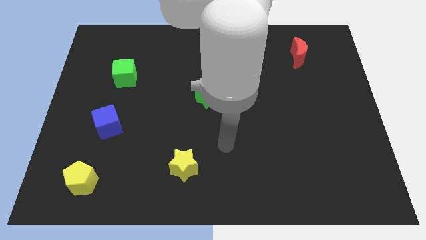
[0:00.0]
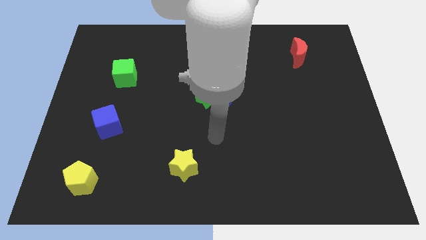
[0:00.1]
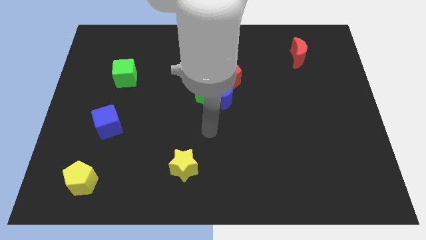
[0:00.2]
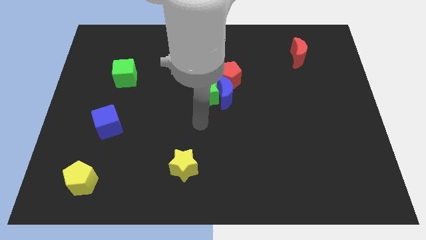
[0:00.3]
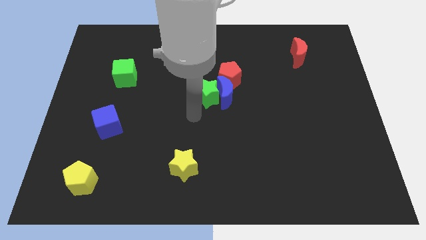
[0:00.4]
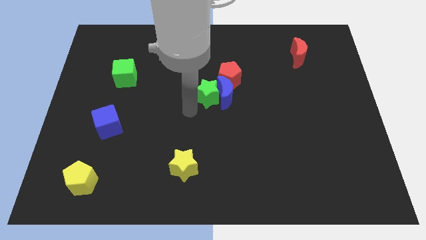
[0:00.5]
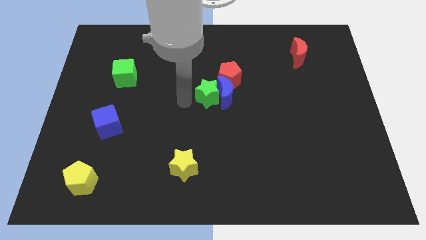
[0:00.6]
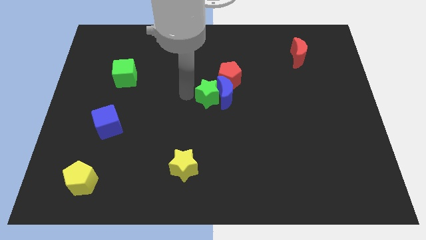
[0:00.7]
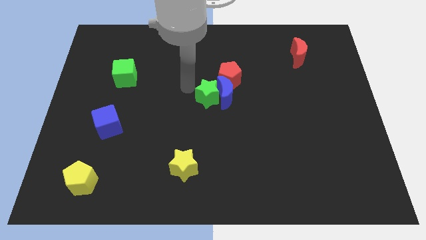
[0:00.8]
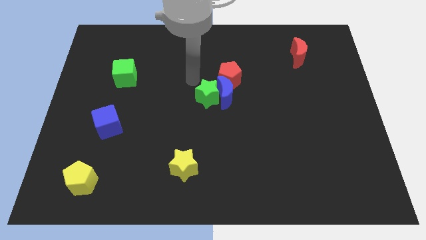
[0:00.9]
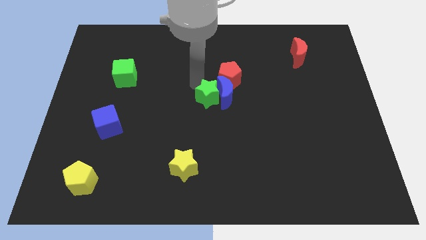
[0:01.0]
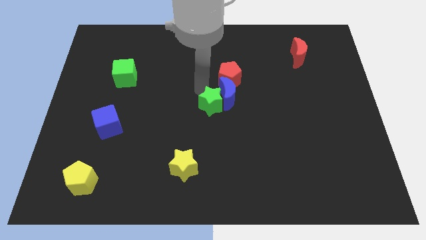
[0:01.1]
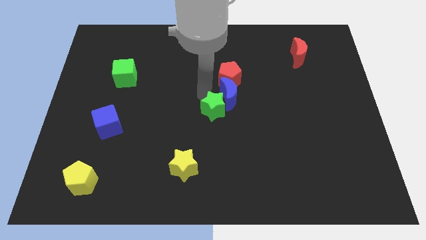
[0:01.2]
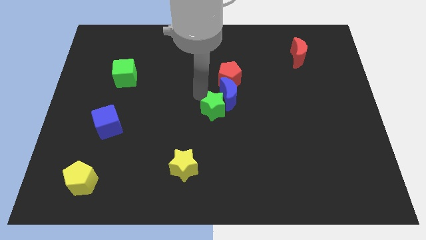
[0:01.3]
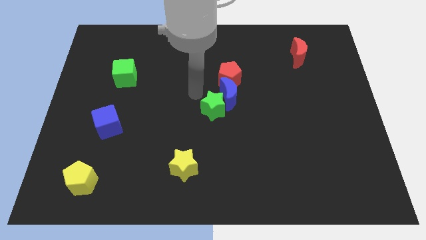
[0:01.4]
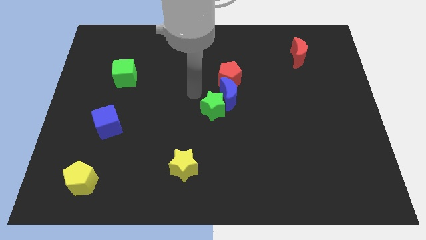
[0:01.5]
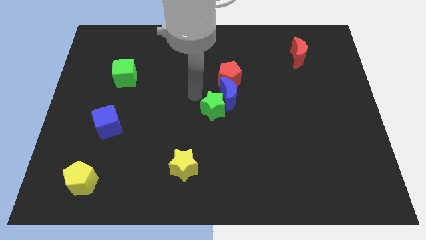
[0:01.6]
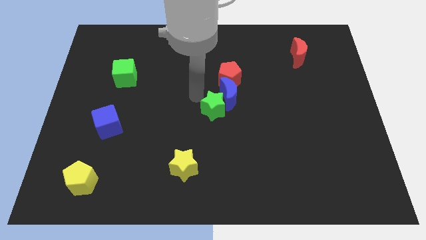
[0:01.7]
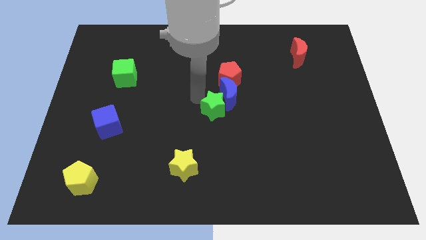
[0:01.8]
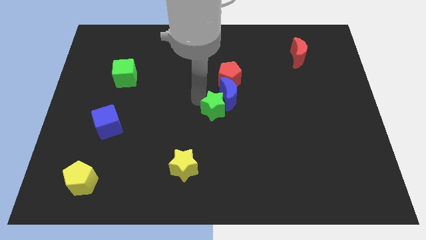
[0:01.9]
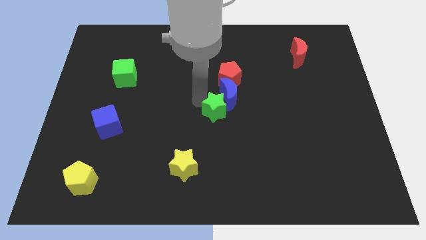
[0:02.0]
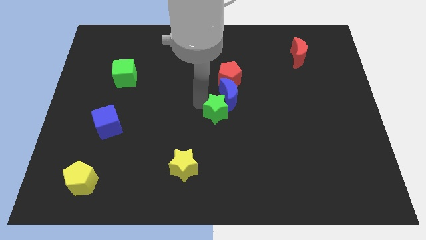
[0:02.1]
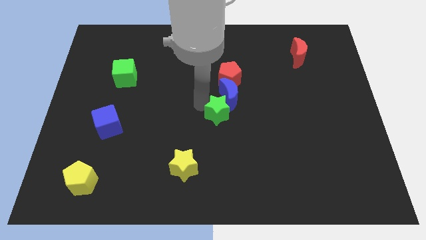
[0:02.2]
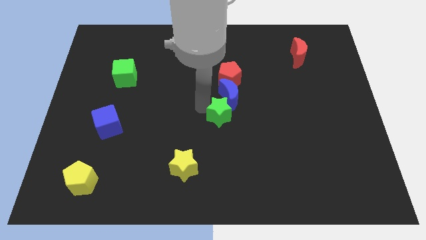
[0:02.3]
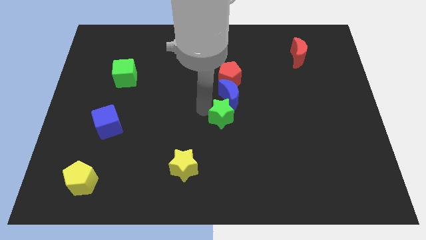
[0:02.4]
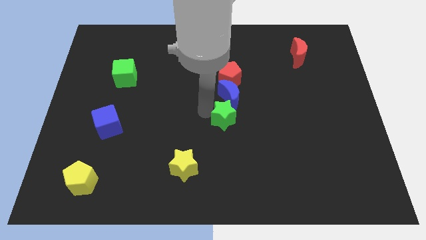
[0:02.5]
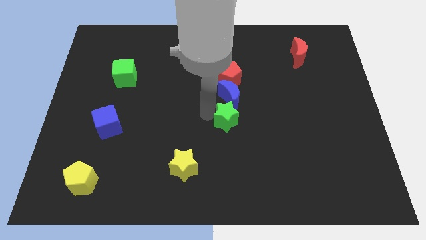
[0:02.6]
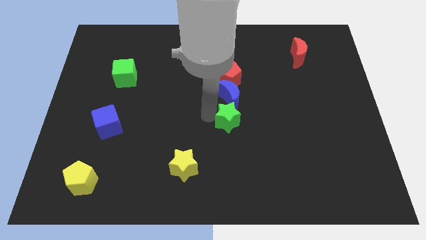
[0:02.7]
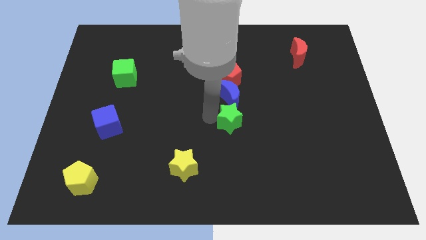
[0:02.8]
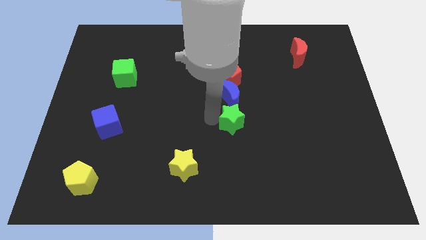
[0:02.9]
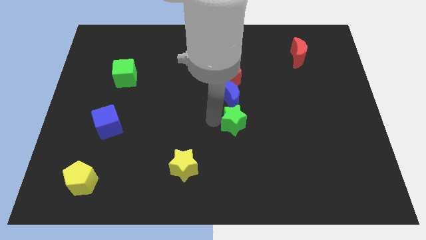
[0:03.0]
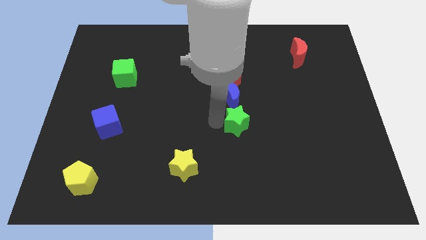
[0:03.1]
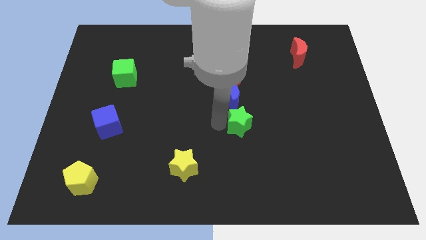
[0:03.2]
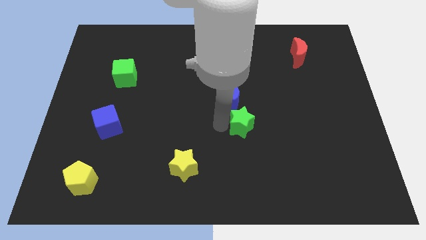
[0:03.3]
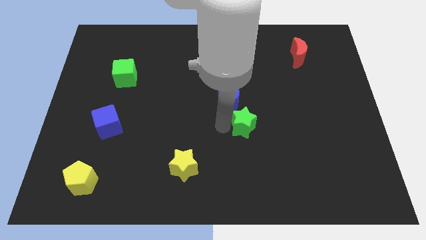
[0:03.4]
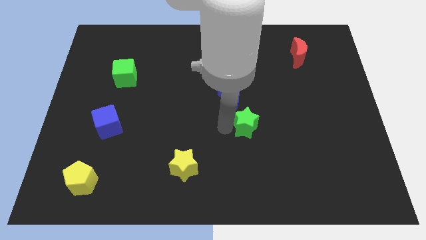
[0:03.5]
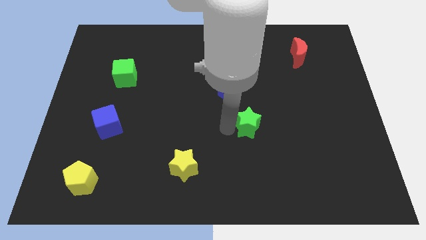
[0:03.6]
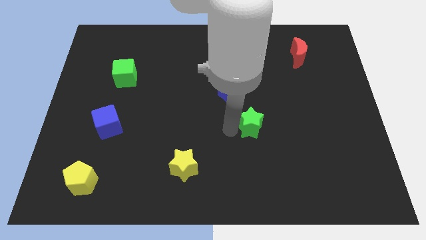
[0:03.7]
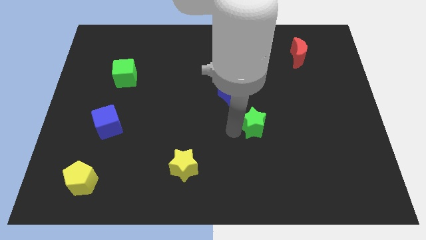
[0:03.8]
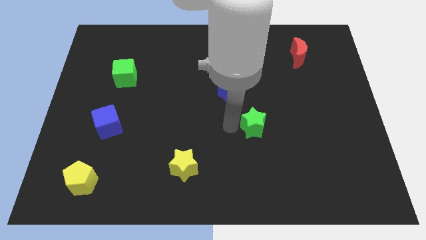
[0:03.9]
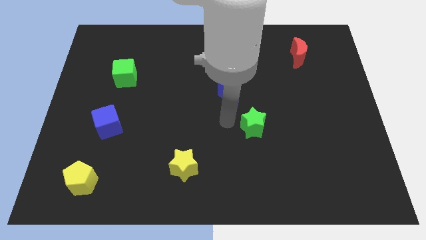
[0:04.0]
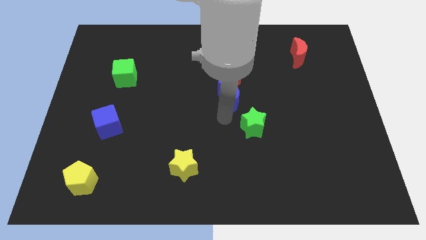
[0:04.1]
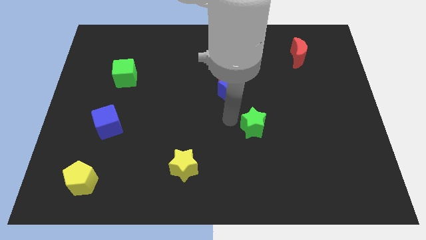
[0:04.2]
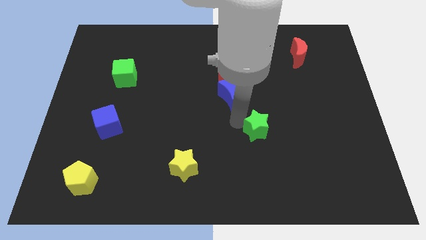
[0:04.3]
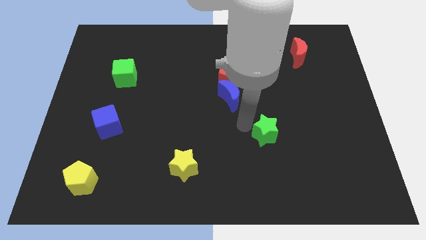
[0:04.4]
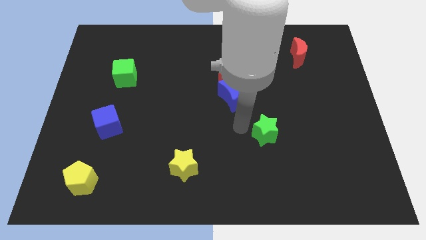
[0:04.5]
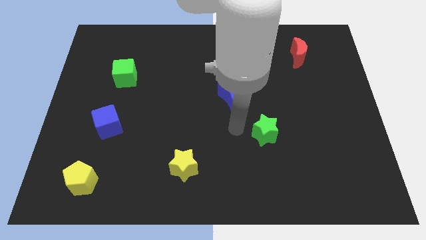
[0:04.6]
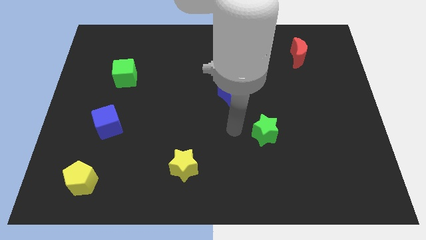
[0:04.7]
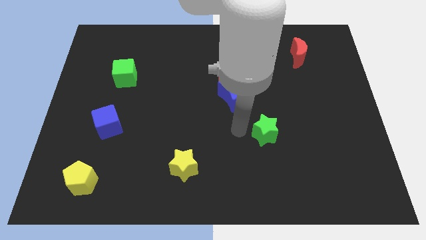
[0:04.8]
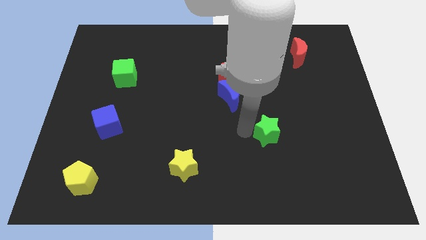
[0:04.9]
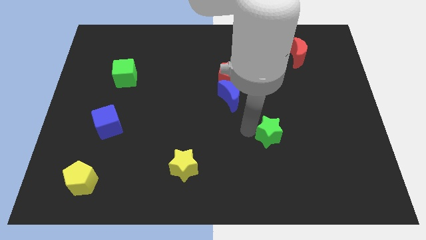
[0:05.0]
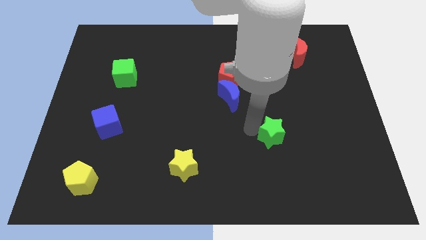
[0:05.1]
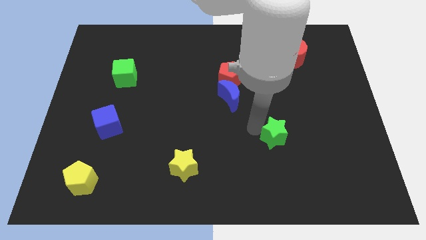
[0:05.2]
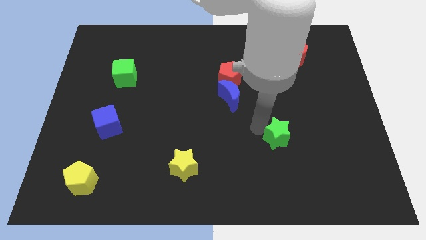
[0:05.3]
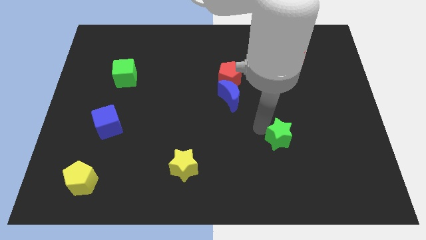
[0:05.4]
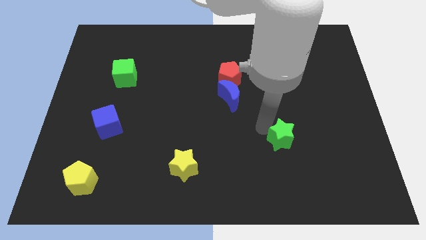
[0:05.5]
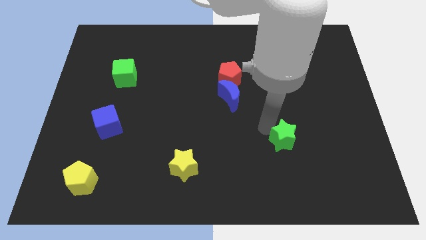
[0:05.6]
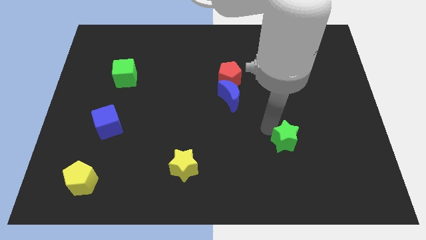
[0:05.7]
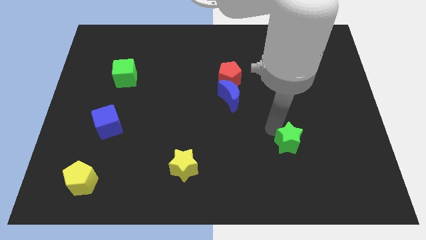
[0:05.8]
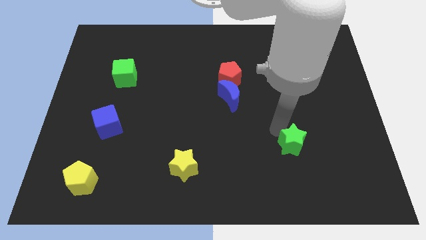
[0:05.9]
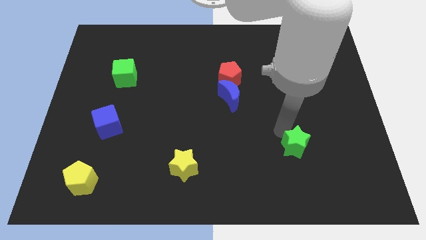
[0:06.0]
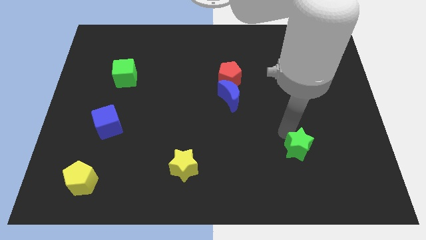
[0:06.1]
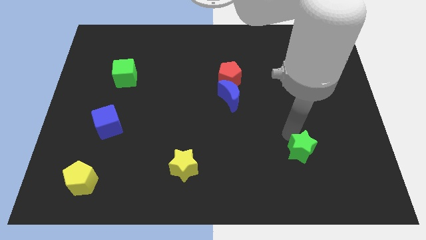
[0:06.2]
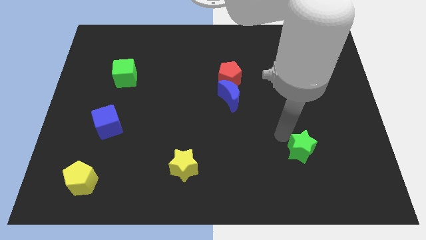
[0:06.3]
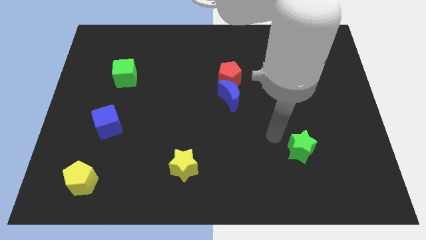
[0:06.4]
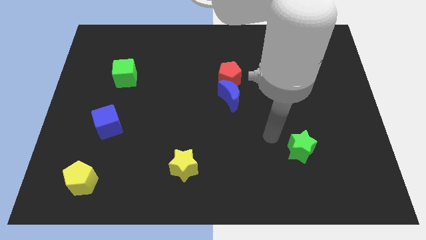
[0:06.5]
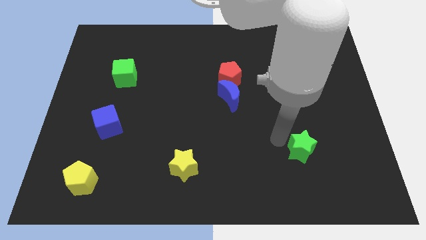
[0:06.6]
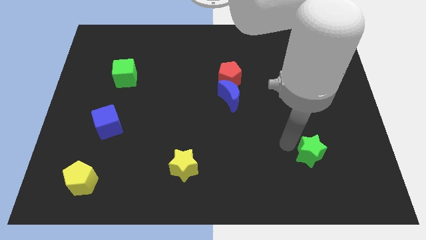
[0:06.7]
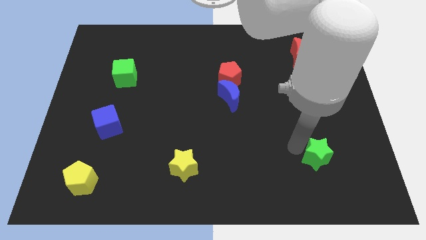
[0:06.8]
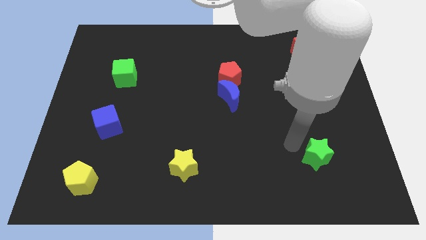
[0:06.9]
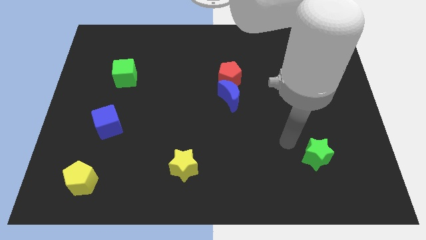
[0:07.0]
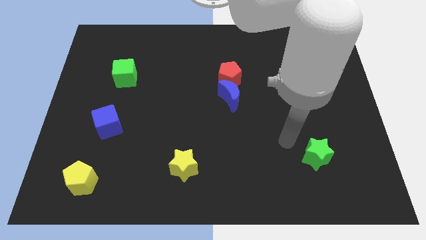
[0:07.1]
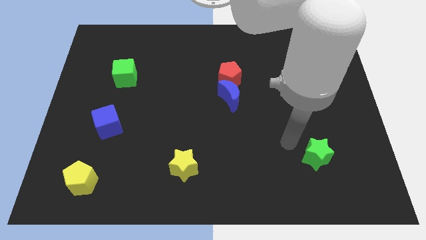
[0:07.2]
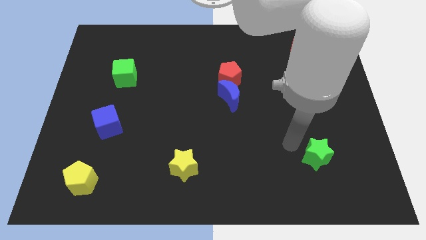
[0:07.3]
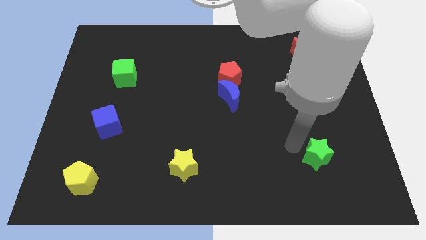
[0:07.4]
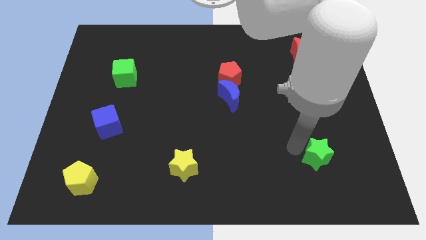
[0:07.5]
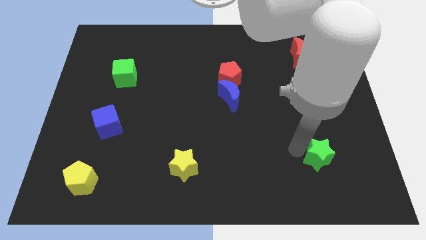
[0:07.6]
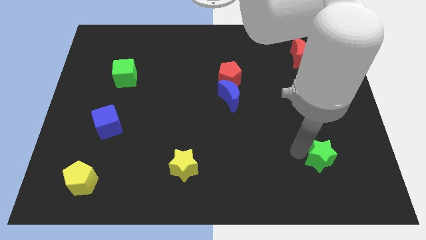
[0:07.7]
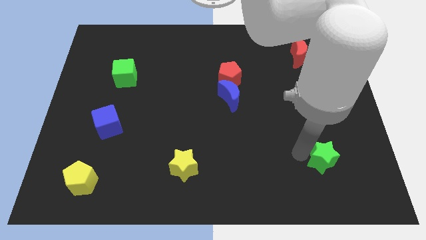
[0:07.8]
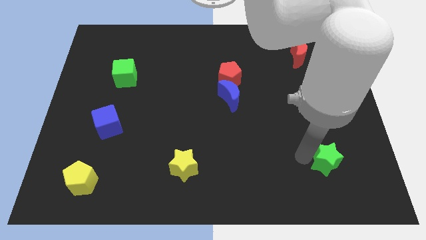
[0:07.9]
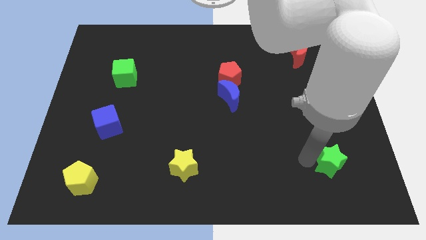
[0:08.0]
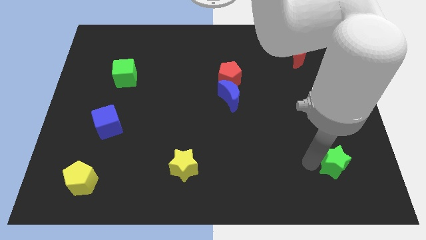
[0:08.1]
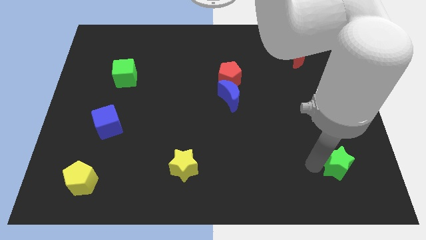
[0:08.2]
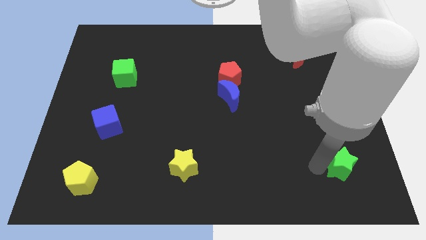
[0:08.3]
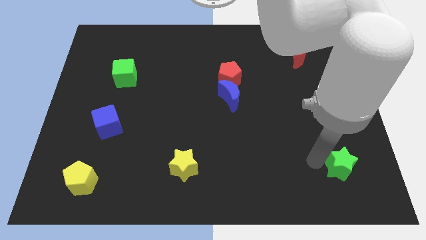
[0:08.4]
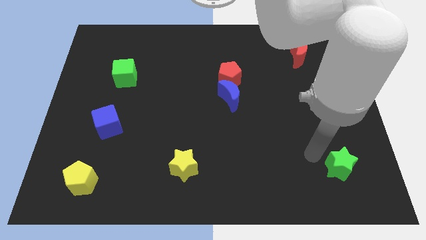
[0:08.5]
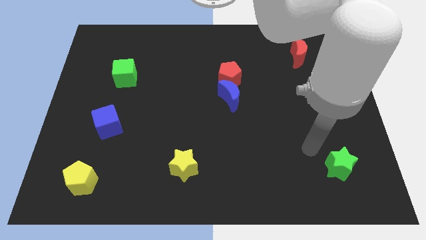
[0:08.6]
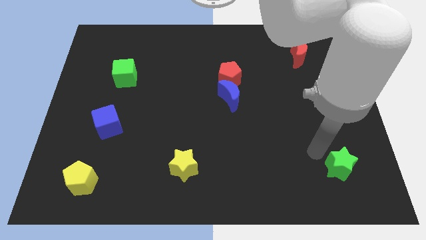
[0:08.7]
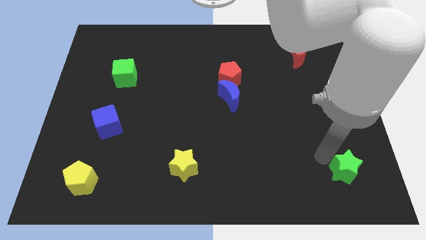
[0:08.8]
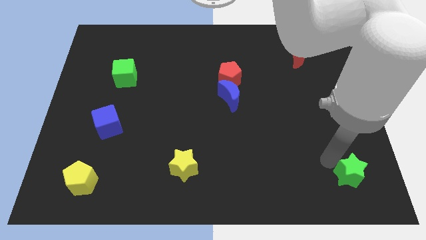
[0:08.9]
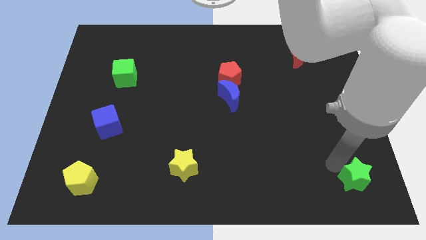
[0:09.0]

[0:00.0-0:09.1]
slide the green star to the bottom right
